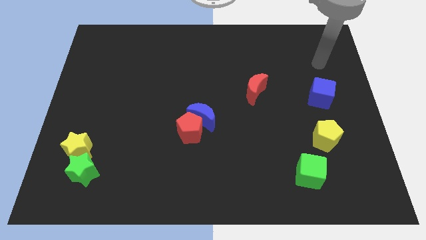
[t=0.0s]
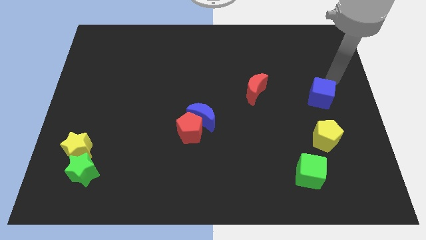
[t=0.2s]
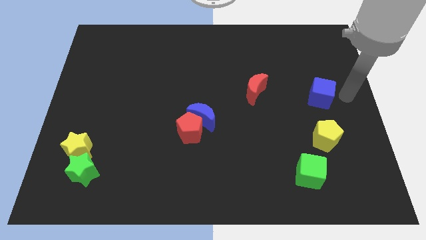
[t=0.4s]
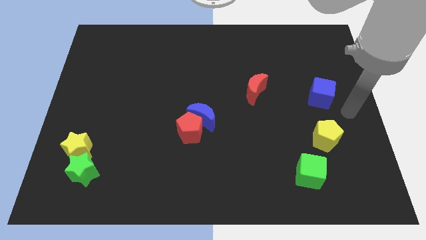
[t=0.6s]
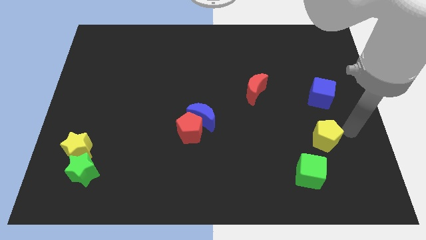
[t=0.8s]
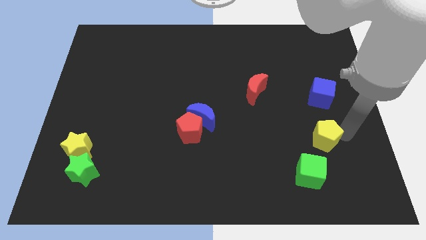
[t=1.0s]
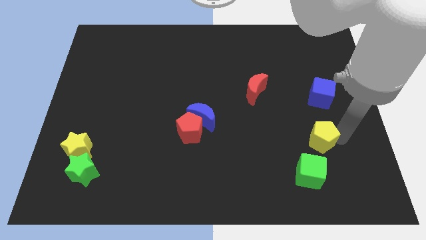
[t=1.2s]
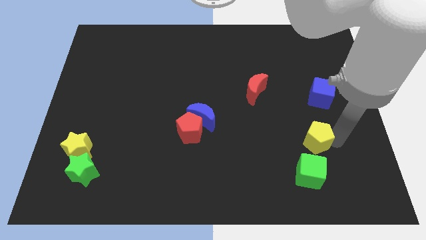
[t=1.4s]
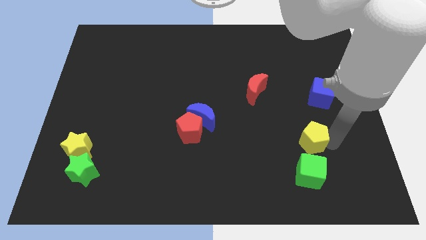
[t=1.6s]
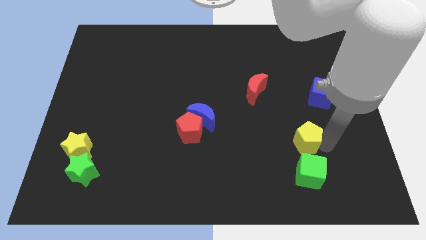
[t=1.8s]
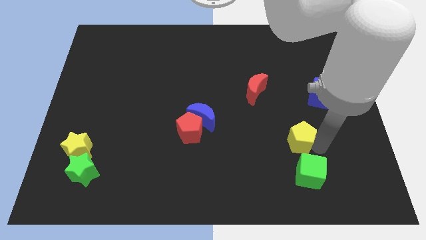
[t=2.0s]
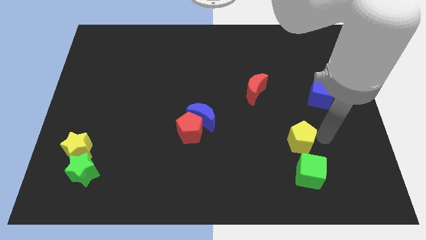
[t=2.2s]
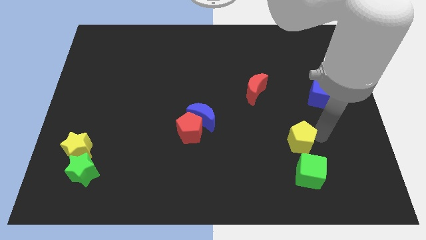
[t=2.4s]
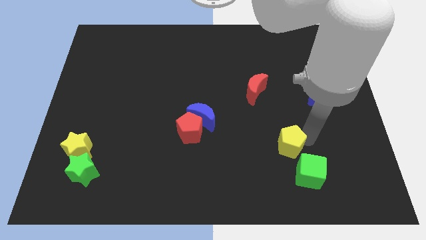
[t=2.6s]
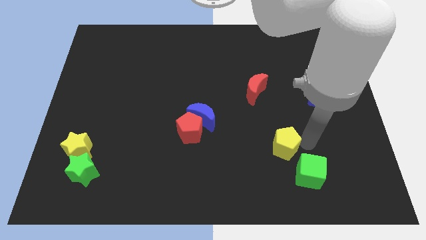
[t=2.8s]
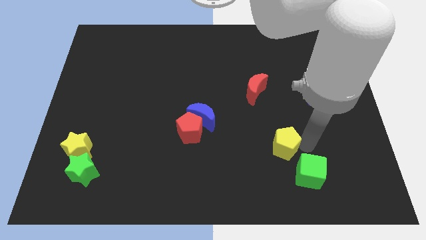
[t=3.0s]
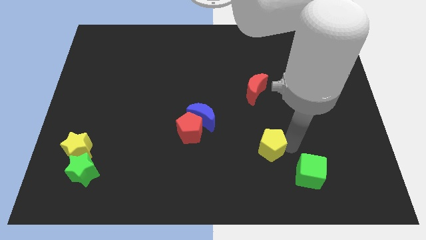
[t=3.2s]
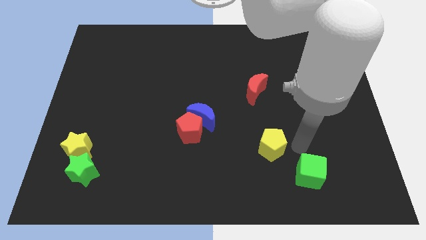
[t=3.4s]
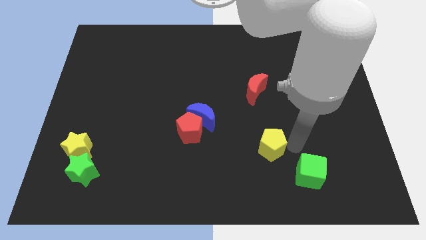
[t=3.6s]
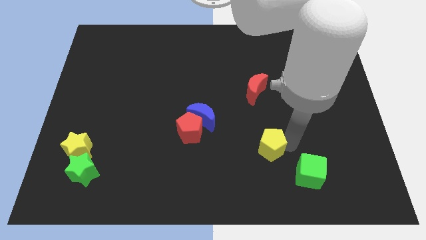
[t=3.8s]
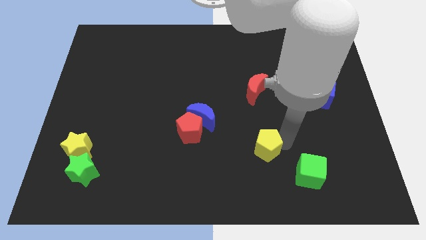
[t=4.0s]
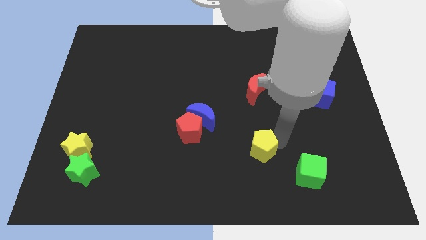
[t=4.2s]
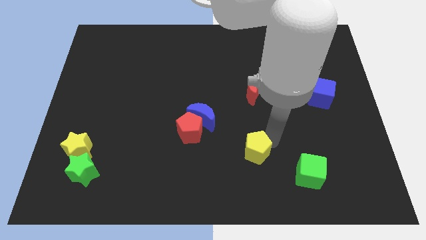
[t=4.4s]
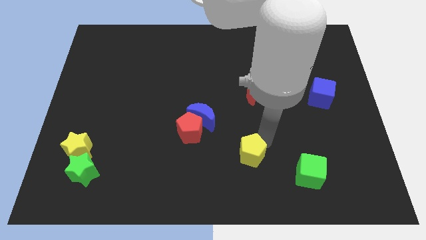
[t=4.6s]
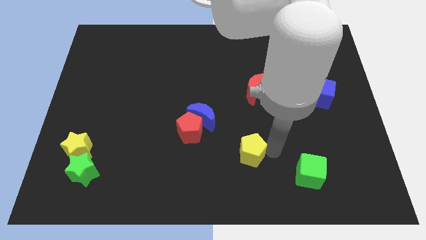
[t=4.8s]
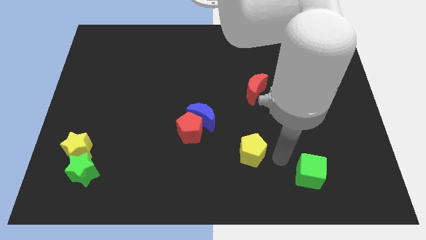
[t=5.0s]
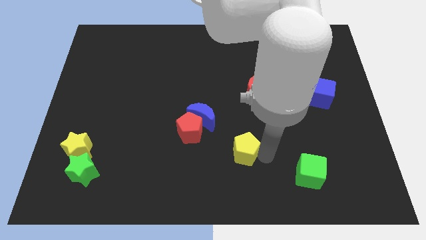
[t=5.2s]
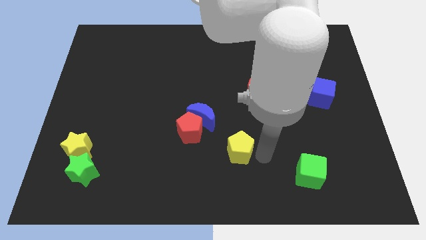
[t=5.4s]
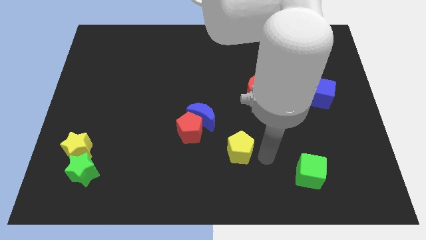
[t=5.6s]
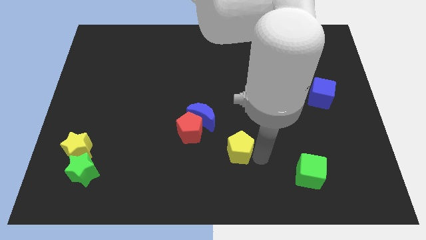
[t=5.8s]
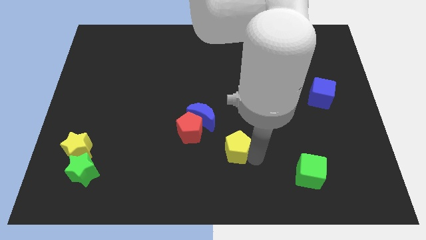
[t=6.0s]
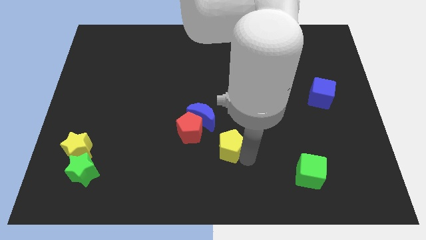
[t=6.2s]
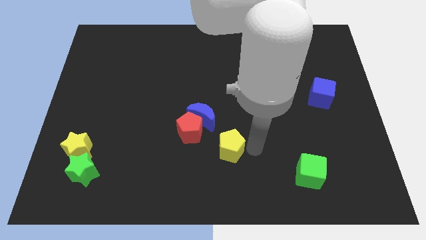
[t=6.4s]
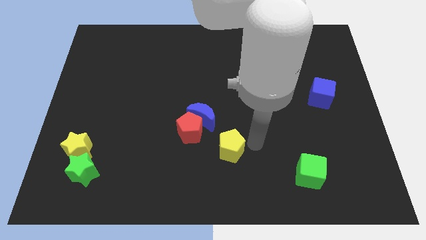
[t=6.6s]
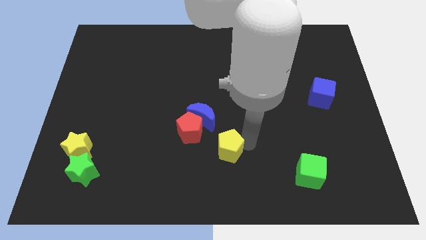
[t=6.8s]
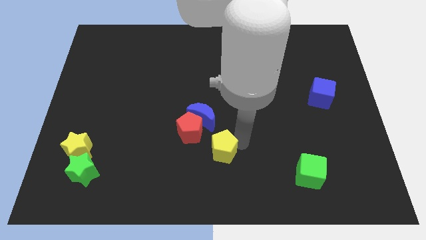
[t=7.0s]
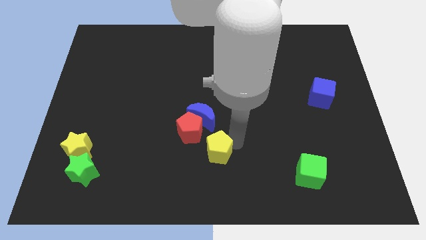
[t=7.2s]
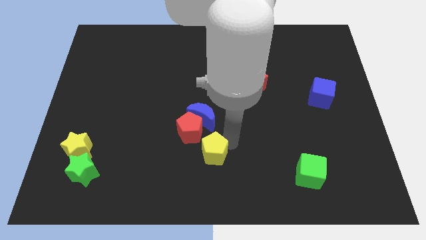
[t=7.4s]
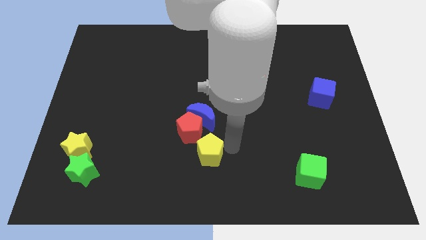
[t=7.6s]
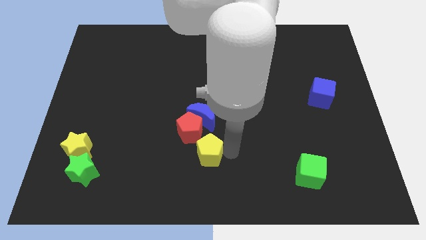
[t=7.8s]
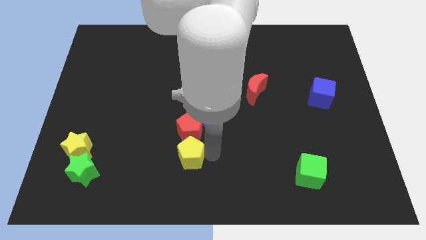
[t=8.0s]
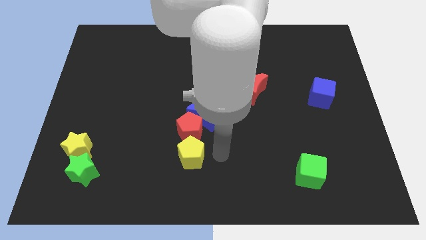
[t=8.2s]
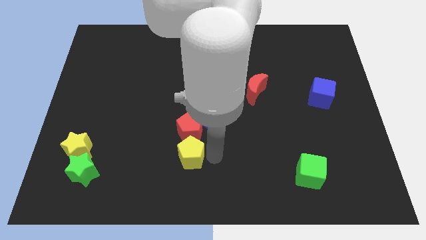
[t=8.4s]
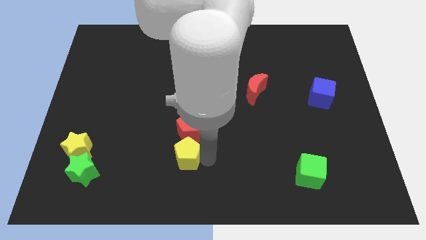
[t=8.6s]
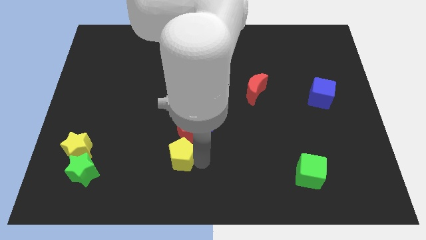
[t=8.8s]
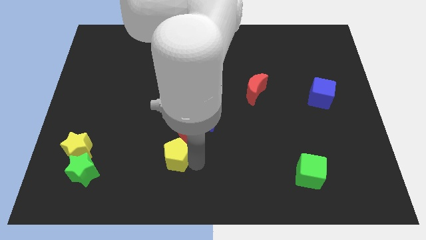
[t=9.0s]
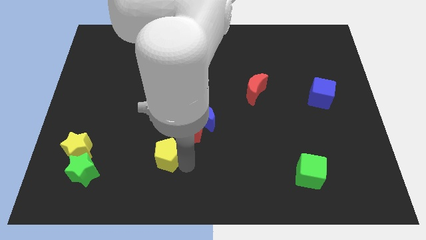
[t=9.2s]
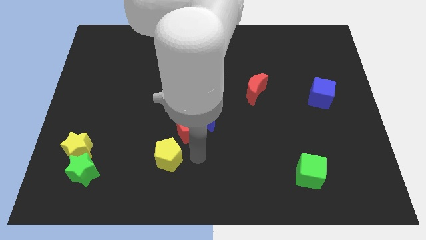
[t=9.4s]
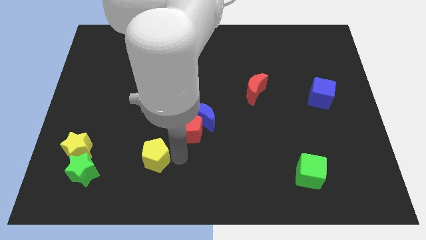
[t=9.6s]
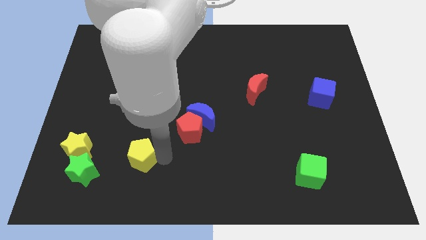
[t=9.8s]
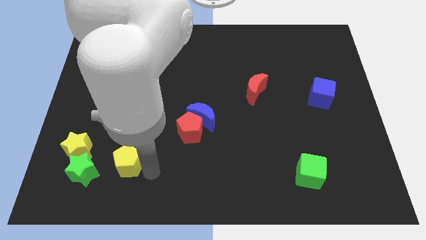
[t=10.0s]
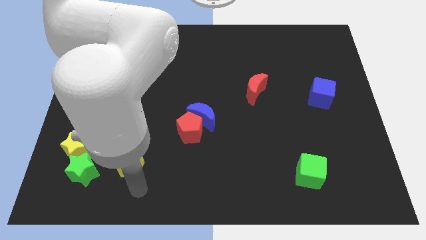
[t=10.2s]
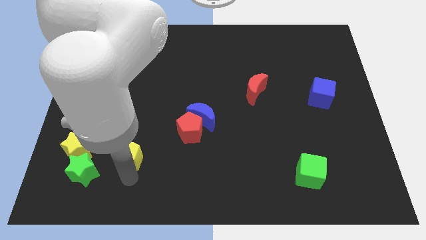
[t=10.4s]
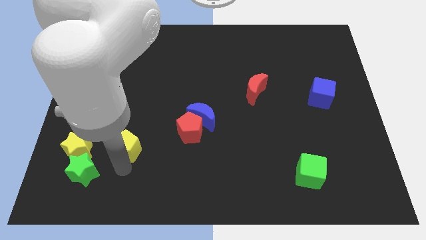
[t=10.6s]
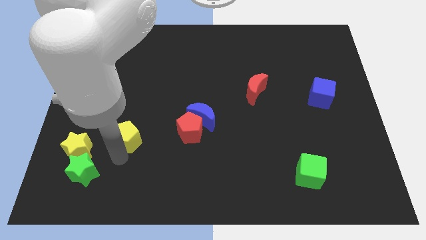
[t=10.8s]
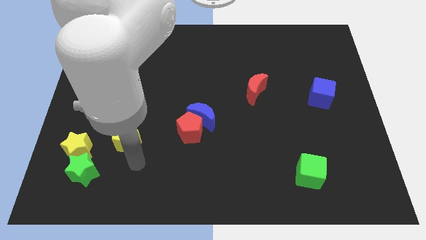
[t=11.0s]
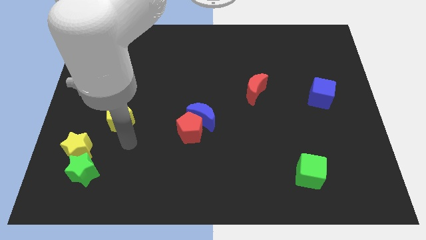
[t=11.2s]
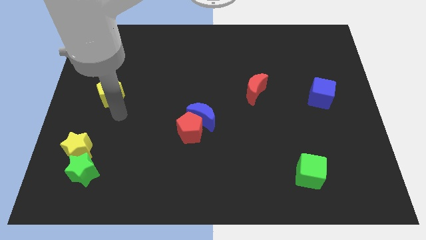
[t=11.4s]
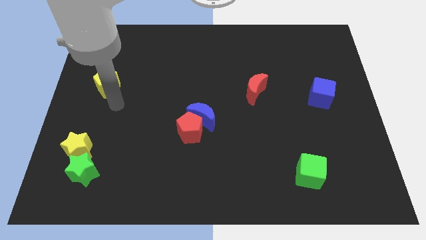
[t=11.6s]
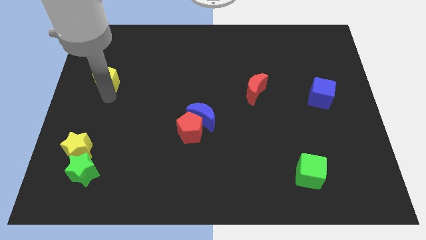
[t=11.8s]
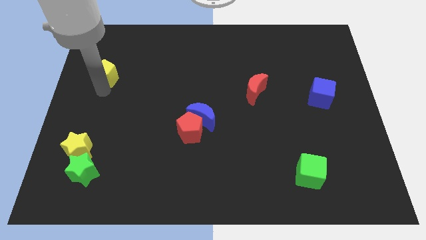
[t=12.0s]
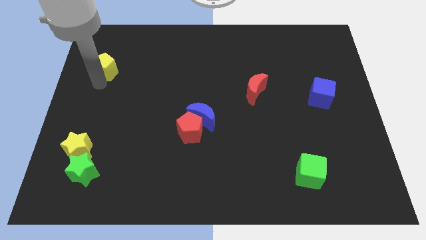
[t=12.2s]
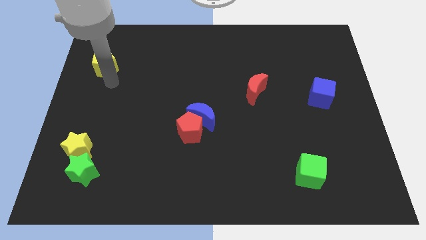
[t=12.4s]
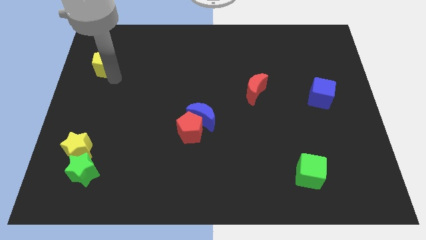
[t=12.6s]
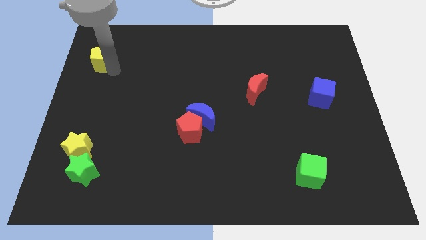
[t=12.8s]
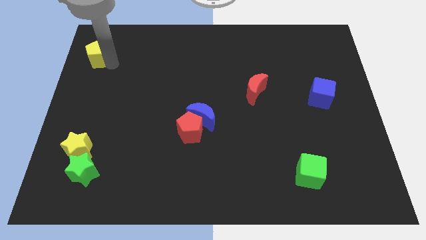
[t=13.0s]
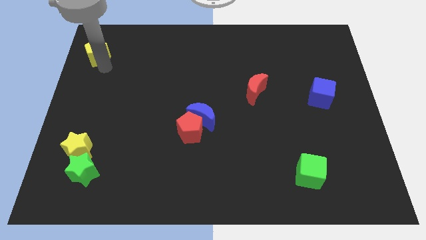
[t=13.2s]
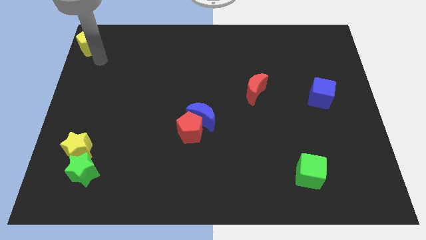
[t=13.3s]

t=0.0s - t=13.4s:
slide the yellow pentagon to the upper left corner
